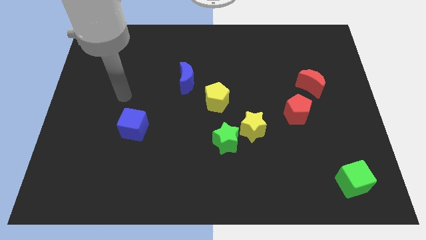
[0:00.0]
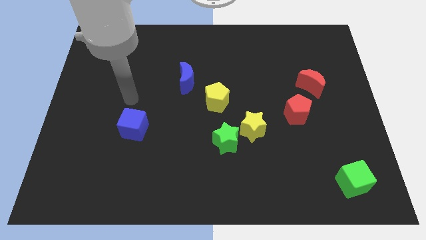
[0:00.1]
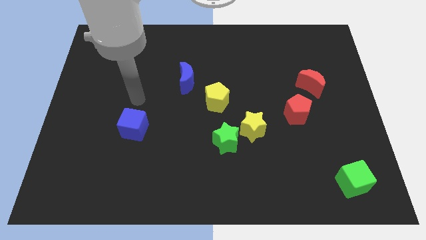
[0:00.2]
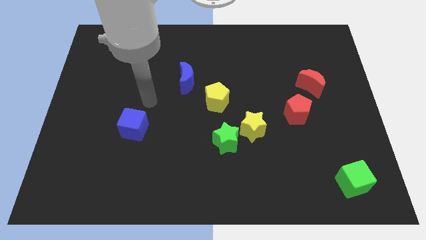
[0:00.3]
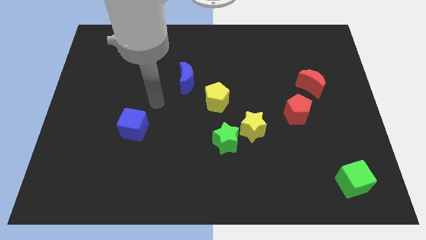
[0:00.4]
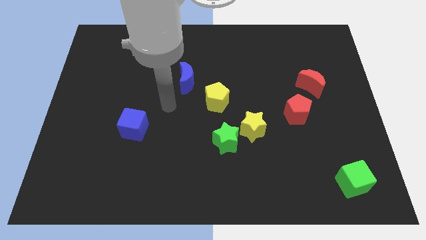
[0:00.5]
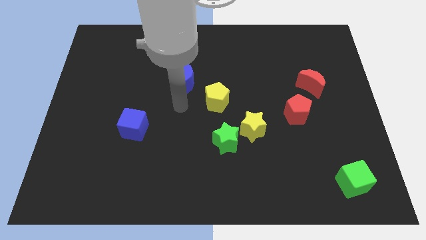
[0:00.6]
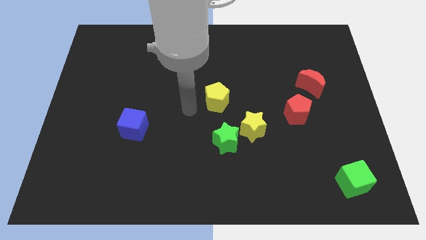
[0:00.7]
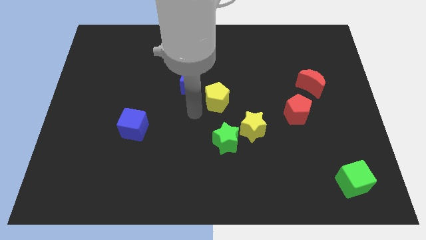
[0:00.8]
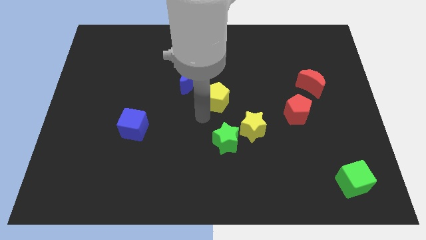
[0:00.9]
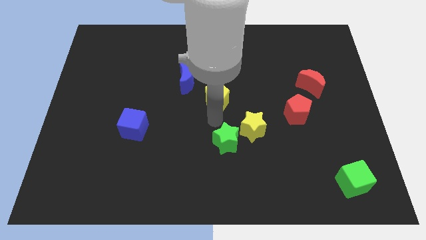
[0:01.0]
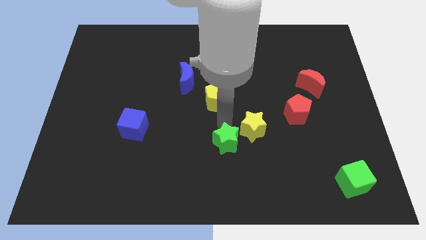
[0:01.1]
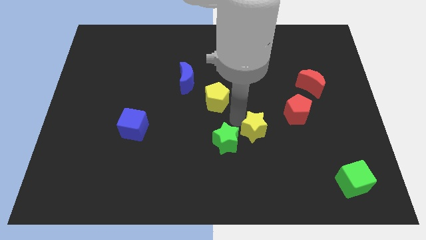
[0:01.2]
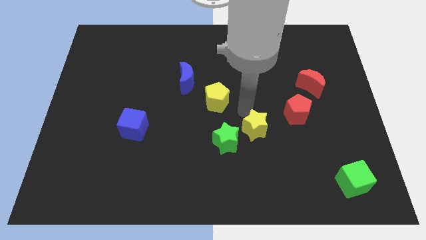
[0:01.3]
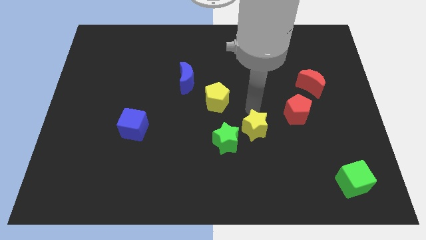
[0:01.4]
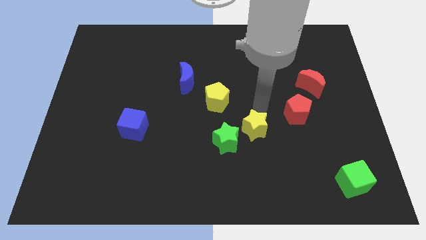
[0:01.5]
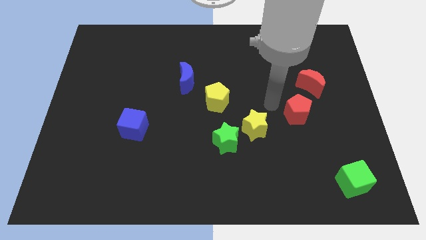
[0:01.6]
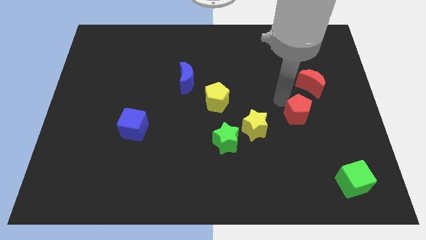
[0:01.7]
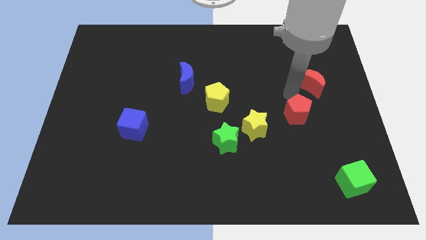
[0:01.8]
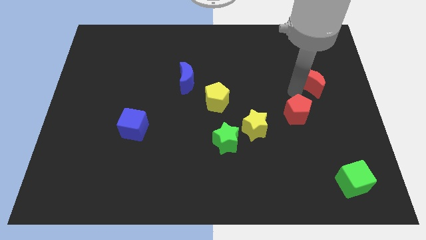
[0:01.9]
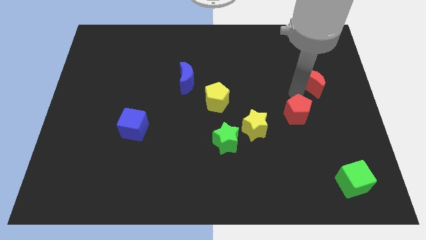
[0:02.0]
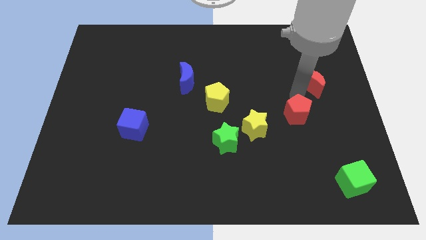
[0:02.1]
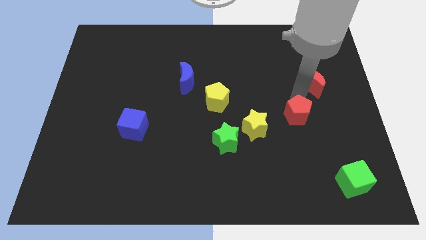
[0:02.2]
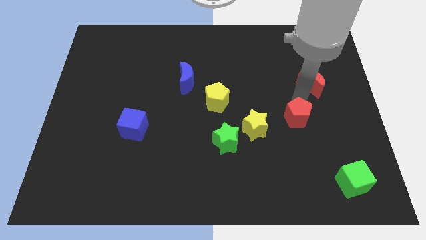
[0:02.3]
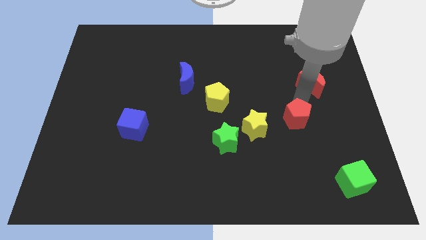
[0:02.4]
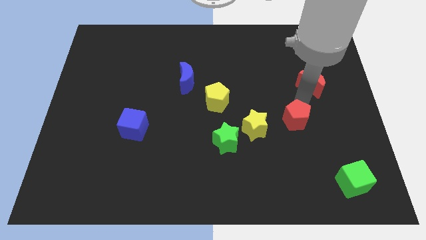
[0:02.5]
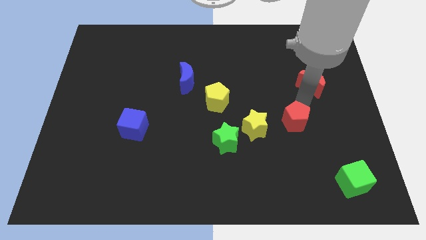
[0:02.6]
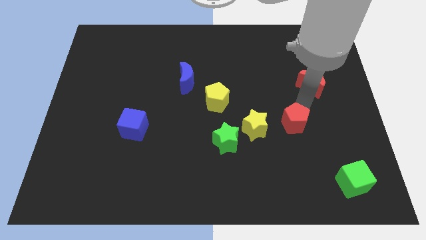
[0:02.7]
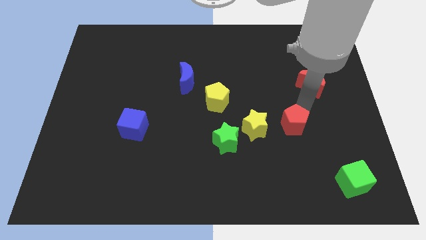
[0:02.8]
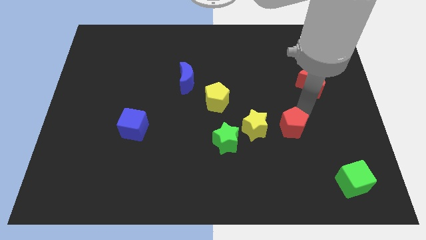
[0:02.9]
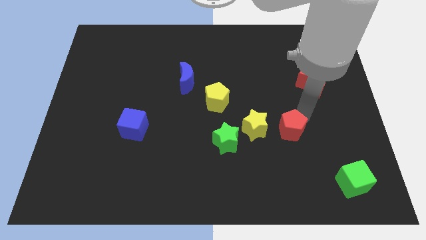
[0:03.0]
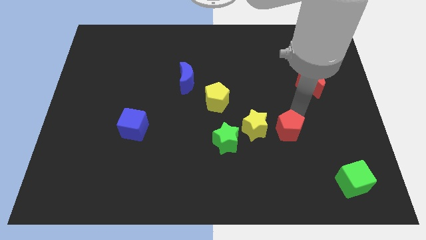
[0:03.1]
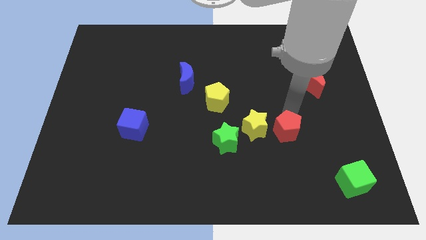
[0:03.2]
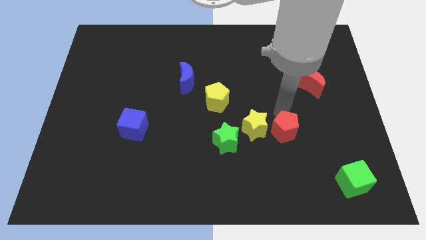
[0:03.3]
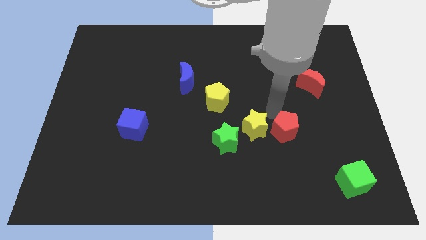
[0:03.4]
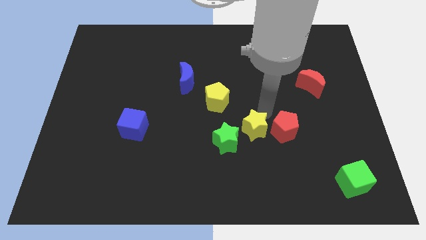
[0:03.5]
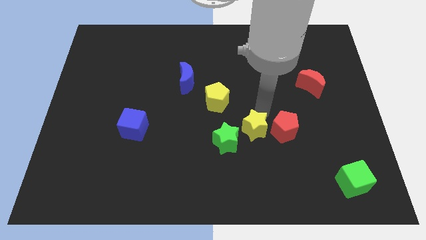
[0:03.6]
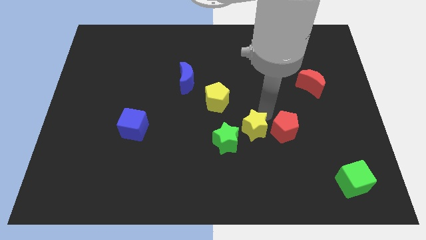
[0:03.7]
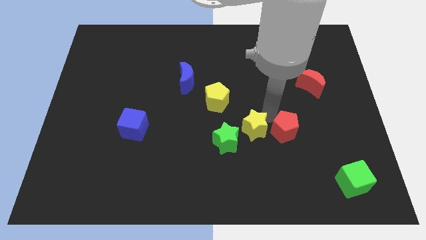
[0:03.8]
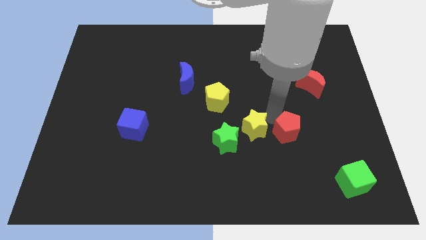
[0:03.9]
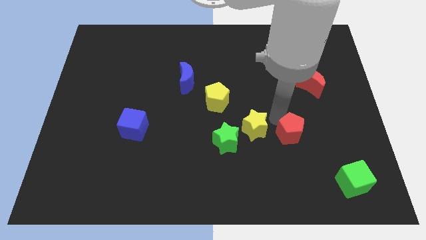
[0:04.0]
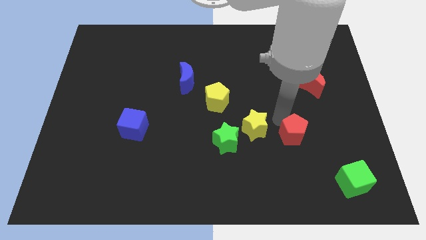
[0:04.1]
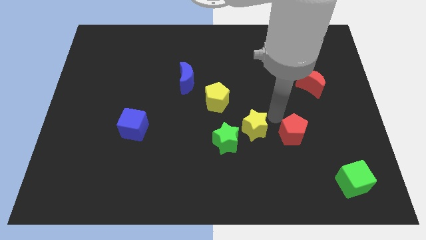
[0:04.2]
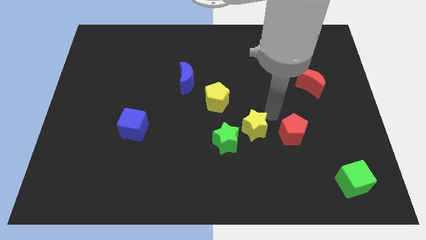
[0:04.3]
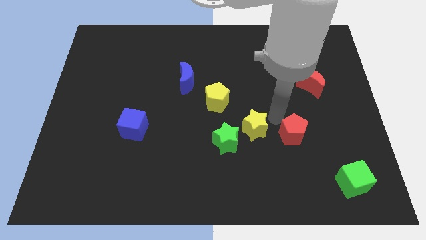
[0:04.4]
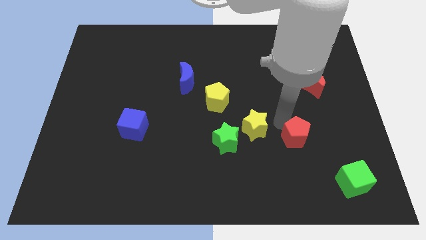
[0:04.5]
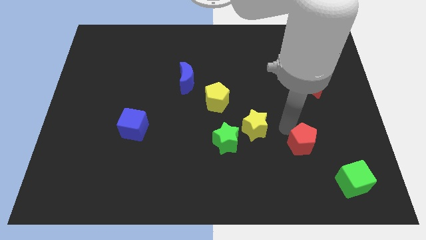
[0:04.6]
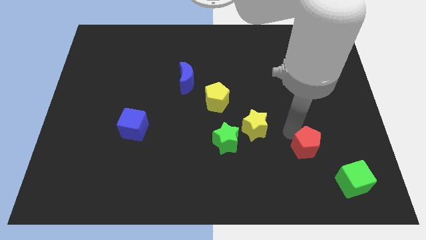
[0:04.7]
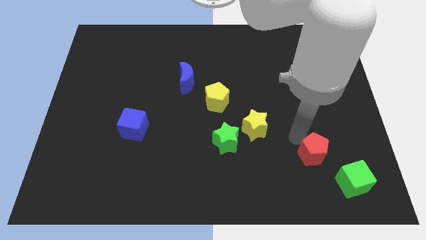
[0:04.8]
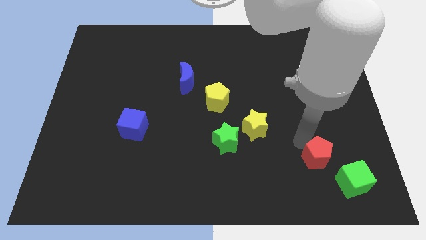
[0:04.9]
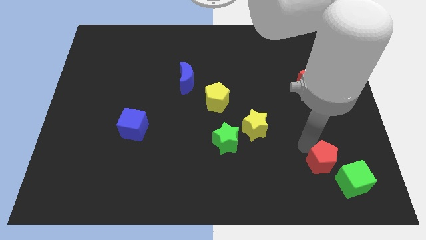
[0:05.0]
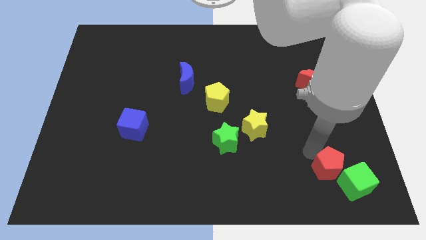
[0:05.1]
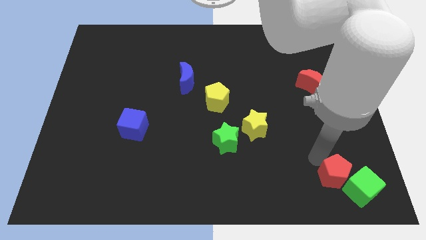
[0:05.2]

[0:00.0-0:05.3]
move the red pentagon close to the green cube

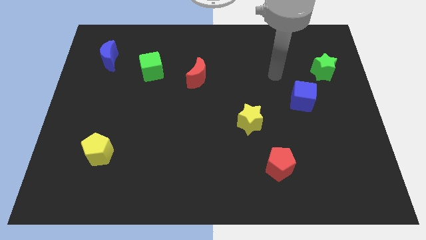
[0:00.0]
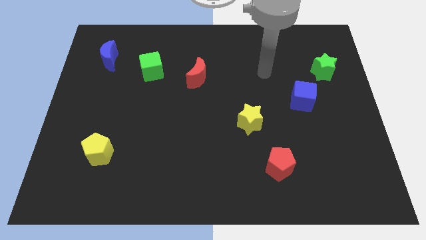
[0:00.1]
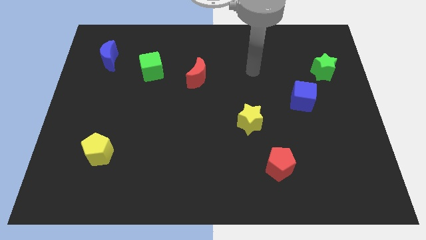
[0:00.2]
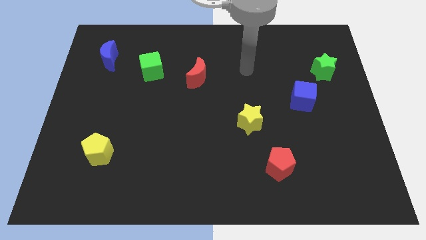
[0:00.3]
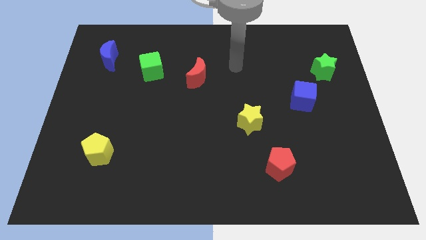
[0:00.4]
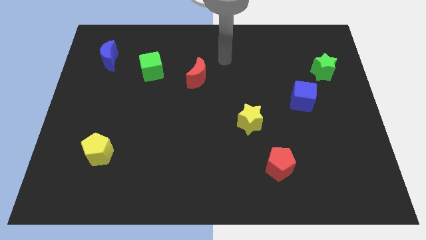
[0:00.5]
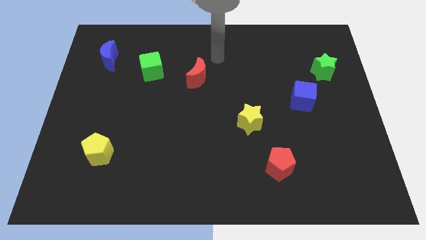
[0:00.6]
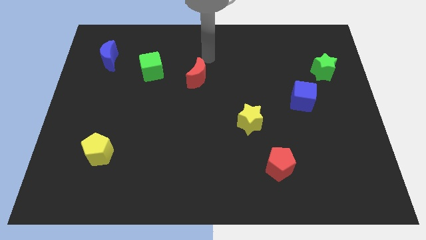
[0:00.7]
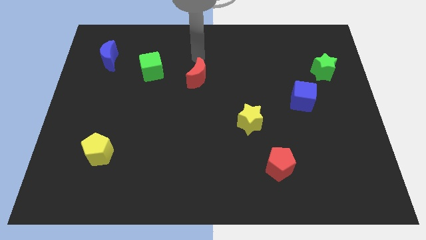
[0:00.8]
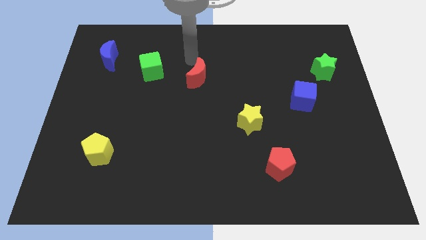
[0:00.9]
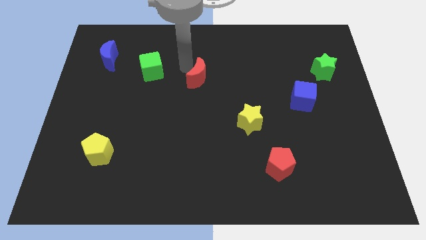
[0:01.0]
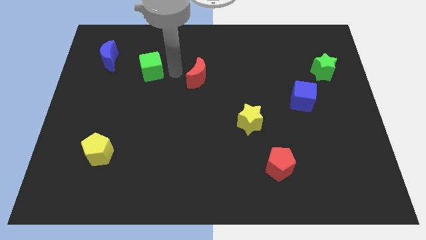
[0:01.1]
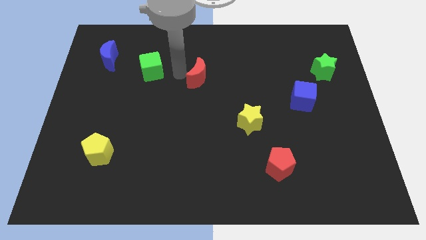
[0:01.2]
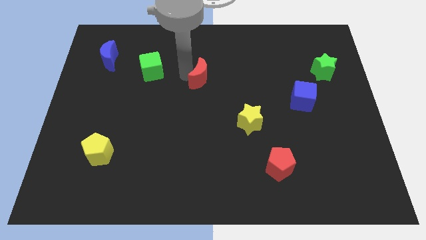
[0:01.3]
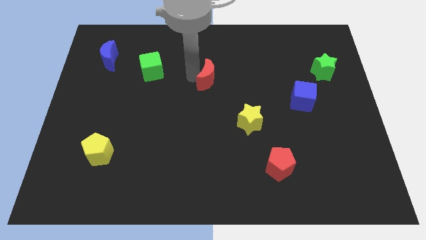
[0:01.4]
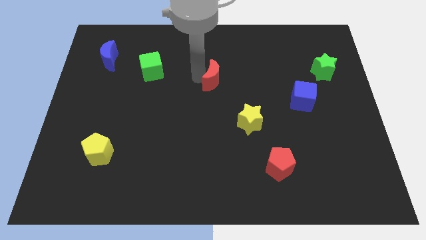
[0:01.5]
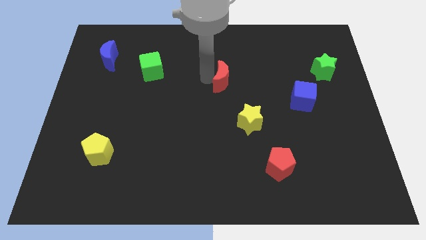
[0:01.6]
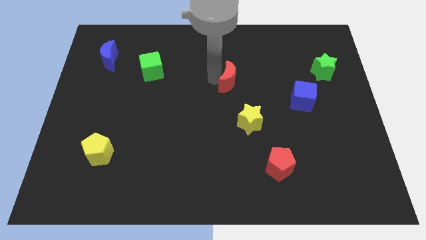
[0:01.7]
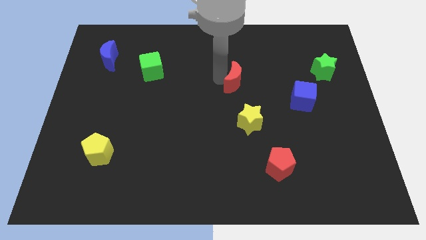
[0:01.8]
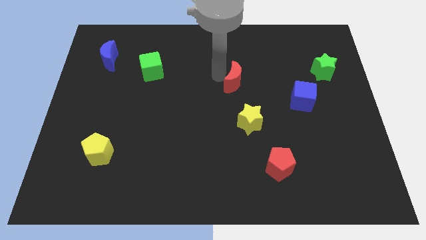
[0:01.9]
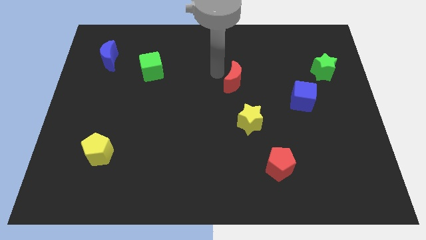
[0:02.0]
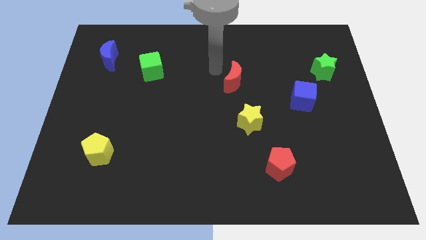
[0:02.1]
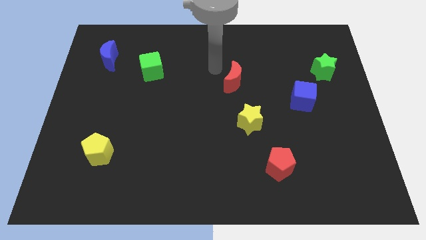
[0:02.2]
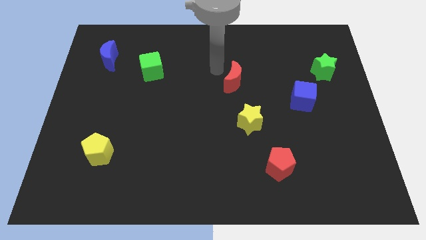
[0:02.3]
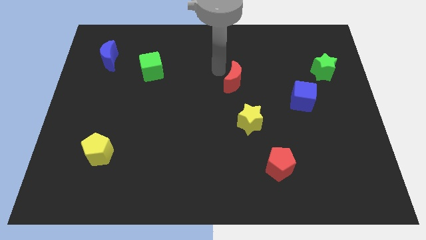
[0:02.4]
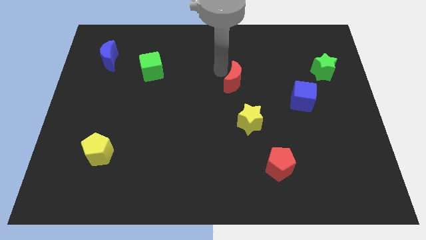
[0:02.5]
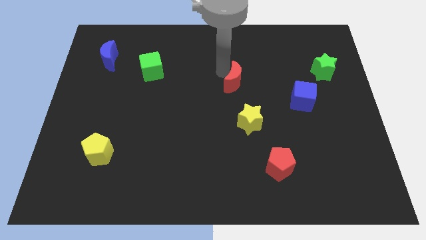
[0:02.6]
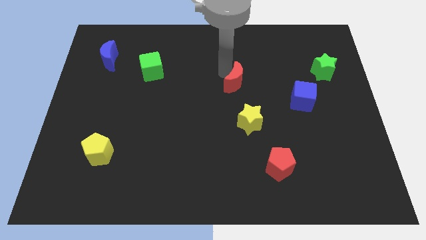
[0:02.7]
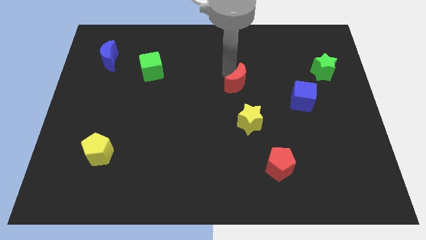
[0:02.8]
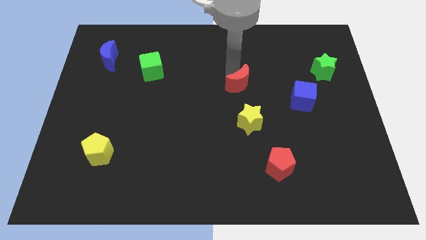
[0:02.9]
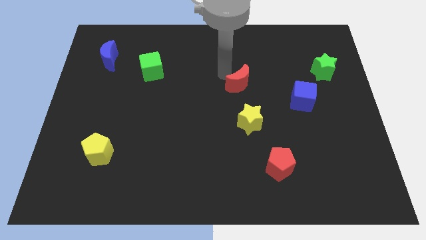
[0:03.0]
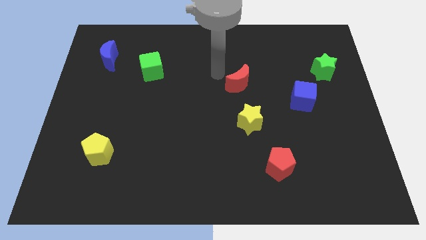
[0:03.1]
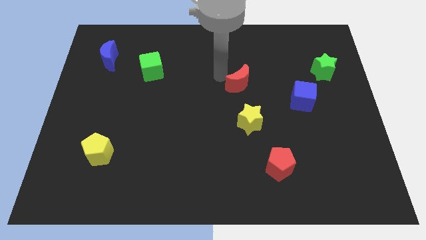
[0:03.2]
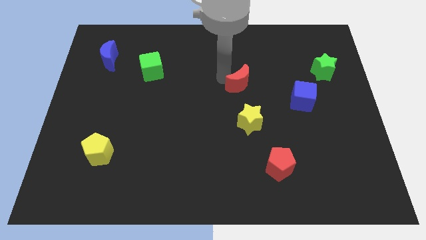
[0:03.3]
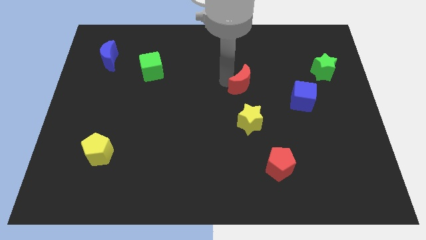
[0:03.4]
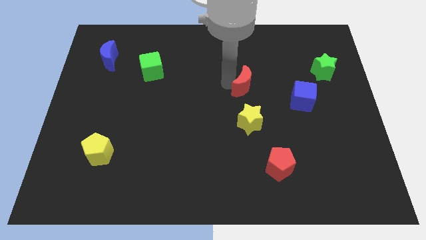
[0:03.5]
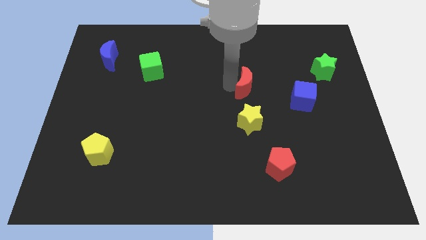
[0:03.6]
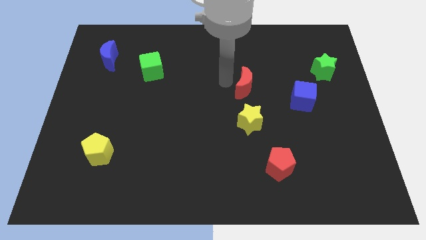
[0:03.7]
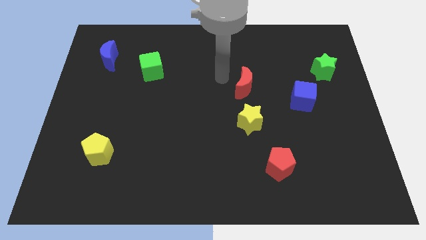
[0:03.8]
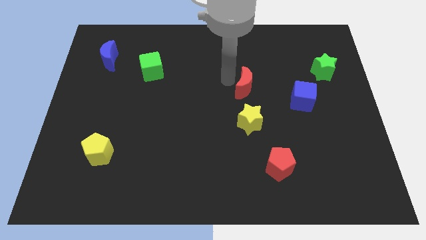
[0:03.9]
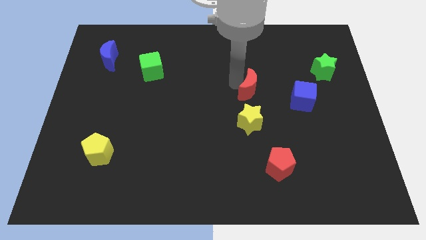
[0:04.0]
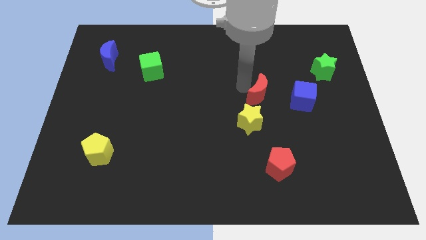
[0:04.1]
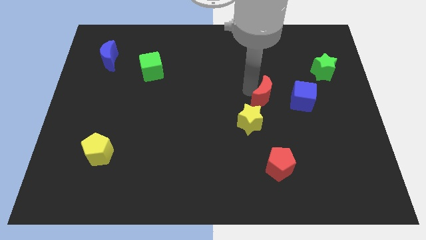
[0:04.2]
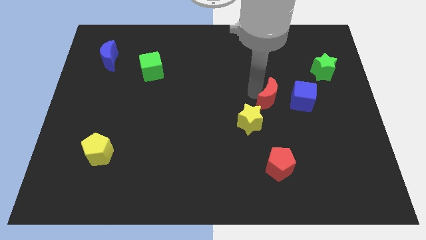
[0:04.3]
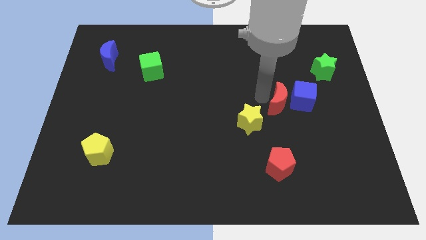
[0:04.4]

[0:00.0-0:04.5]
push the red moon towards the blue cube
